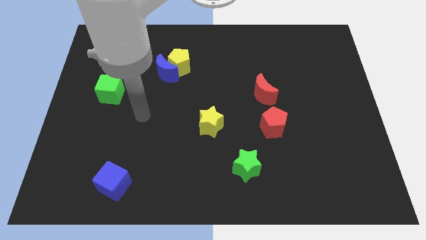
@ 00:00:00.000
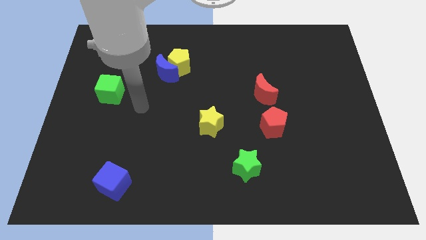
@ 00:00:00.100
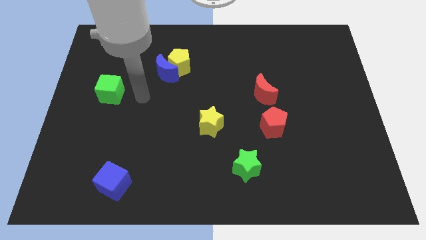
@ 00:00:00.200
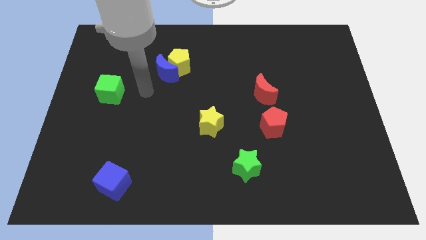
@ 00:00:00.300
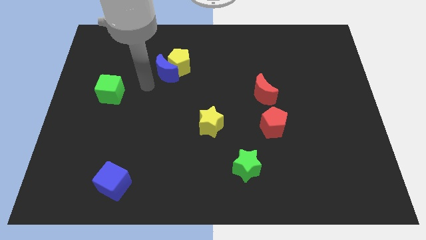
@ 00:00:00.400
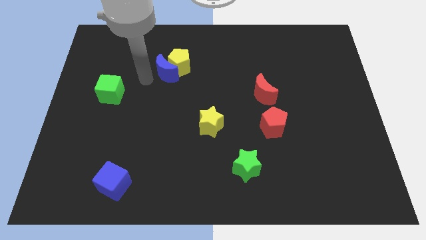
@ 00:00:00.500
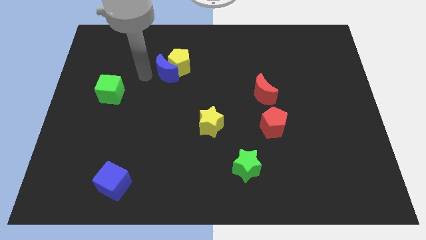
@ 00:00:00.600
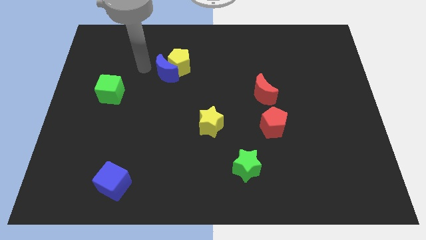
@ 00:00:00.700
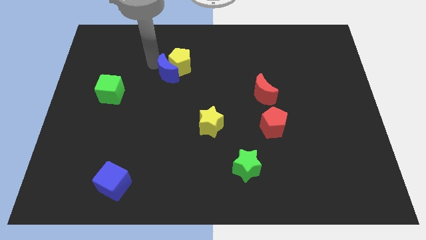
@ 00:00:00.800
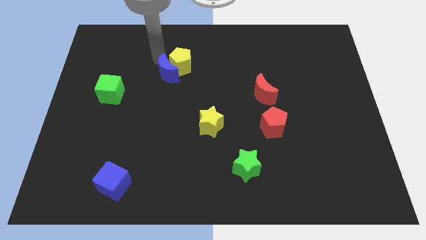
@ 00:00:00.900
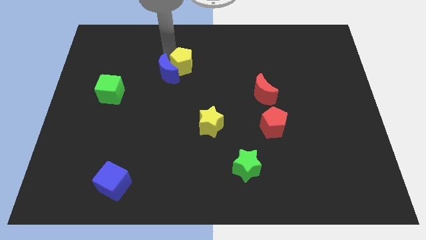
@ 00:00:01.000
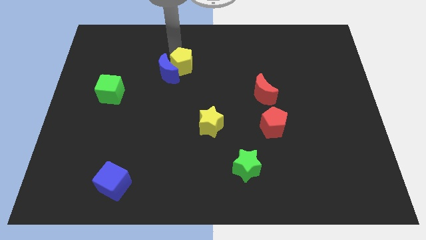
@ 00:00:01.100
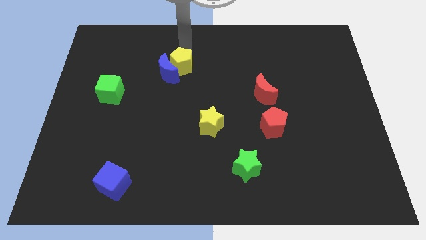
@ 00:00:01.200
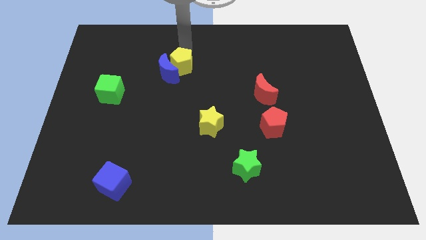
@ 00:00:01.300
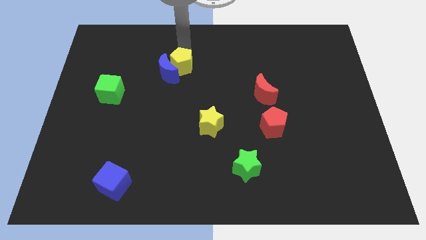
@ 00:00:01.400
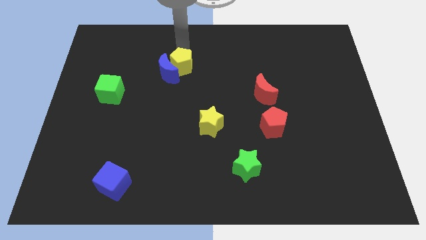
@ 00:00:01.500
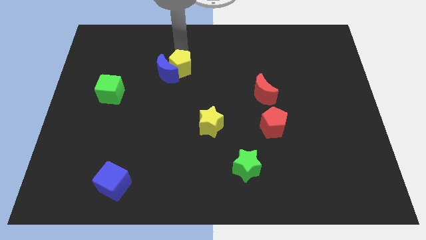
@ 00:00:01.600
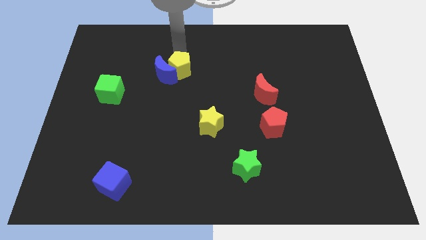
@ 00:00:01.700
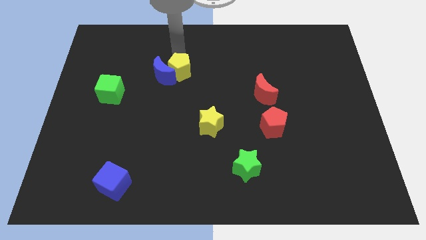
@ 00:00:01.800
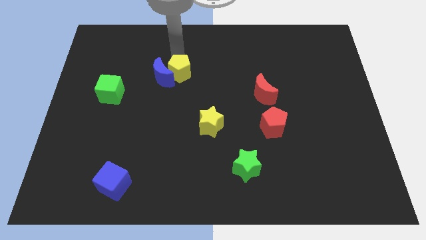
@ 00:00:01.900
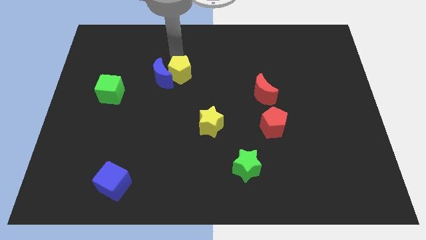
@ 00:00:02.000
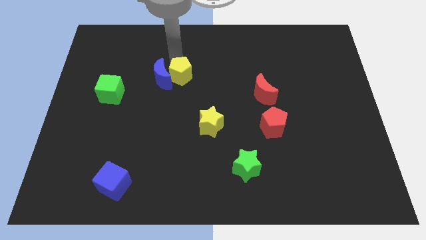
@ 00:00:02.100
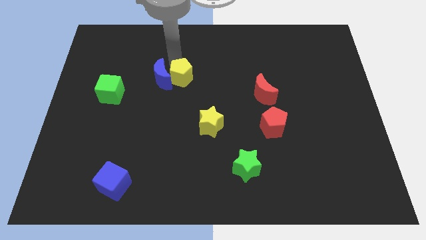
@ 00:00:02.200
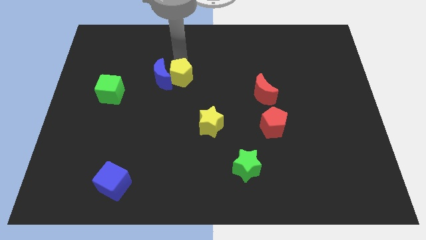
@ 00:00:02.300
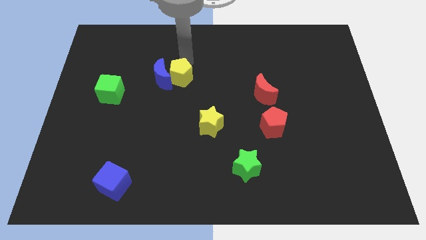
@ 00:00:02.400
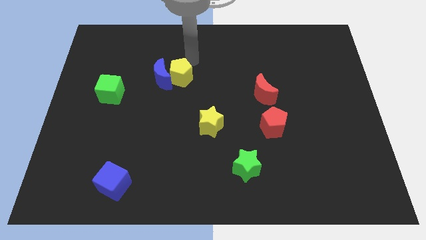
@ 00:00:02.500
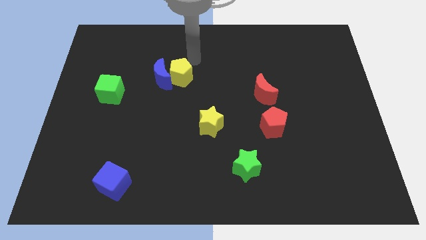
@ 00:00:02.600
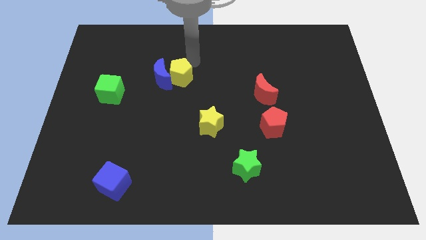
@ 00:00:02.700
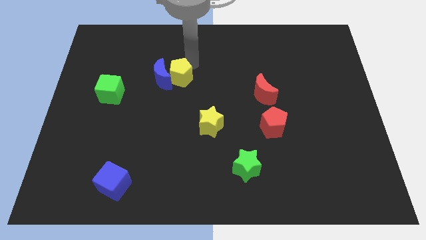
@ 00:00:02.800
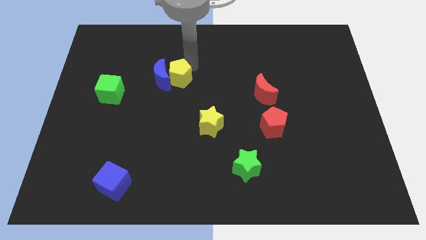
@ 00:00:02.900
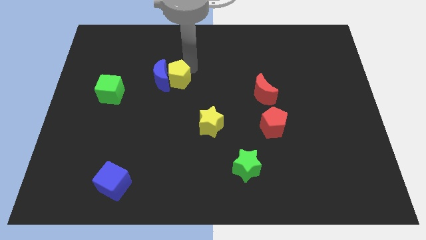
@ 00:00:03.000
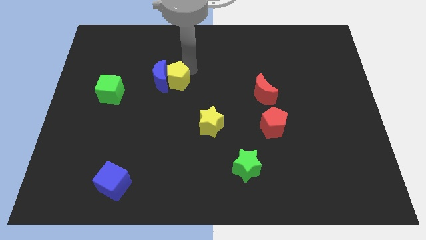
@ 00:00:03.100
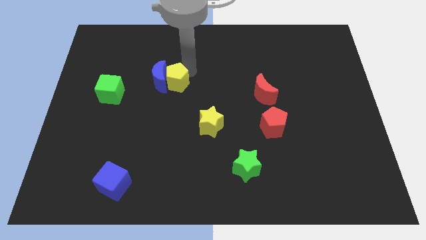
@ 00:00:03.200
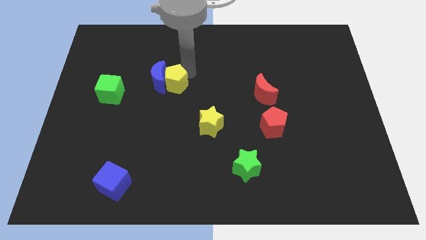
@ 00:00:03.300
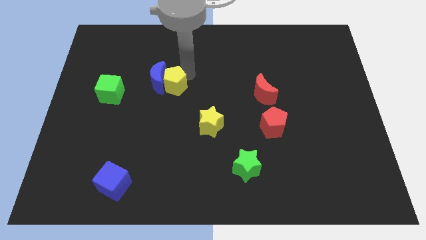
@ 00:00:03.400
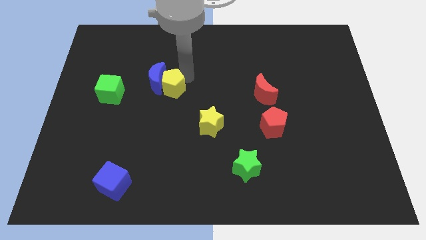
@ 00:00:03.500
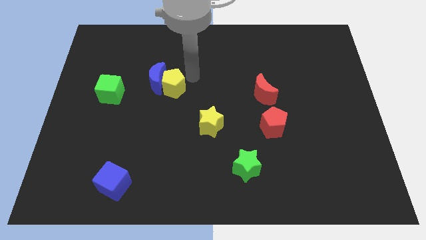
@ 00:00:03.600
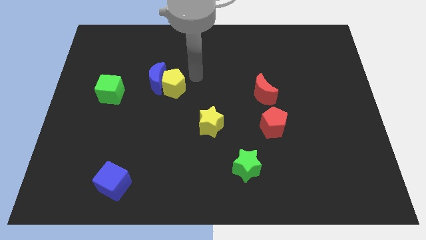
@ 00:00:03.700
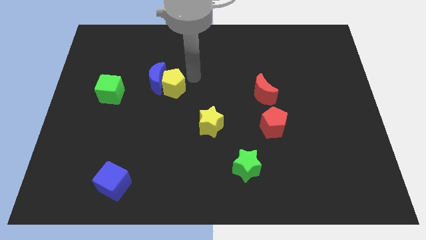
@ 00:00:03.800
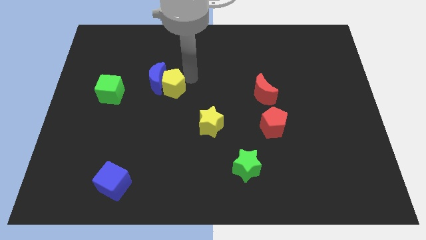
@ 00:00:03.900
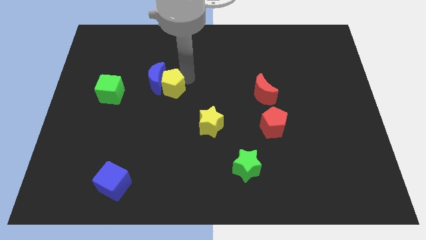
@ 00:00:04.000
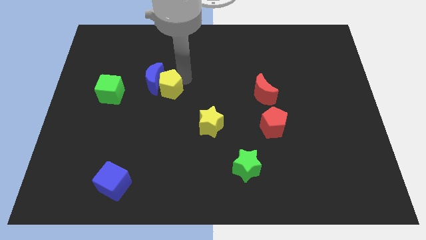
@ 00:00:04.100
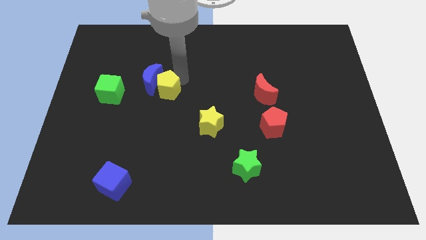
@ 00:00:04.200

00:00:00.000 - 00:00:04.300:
push the yellow pentagon downwards and to the left diagonally somewhat

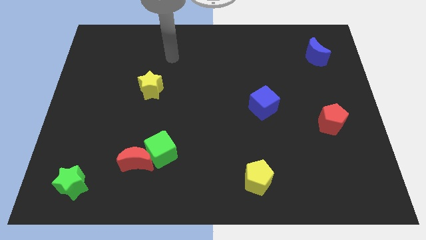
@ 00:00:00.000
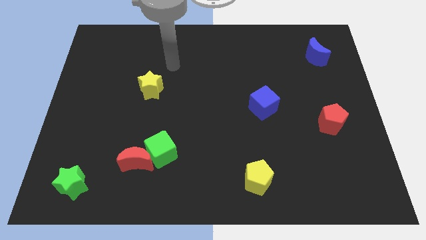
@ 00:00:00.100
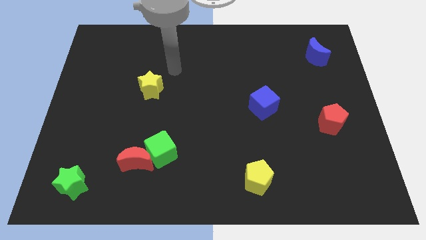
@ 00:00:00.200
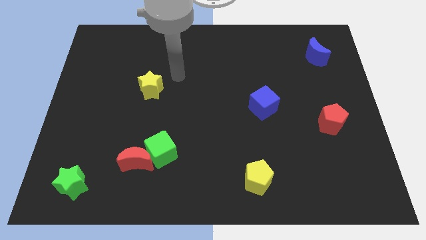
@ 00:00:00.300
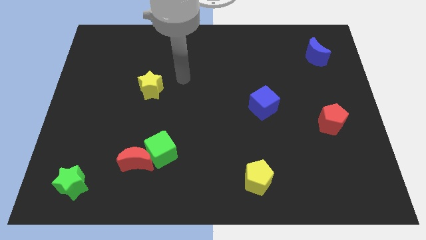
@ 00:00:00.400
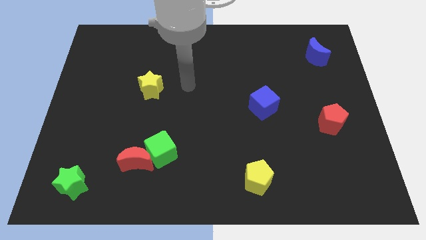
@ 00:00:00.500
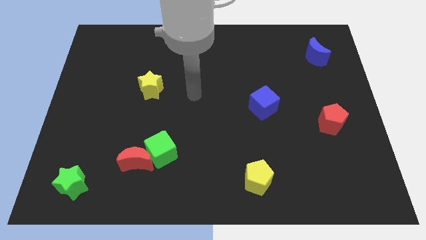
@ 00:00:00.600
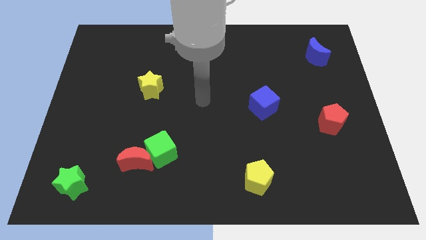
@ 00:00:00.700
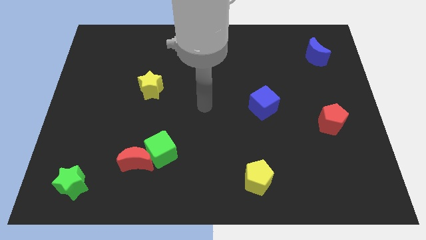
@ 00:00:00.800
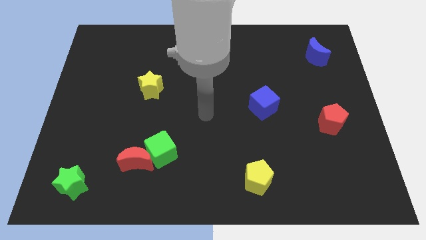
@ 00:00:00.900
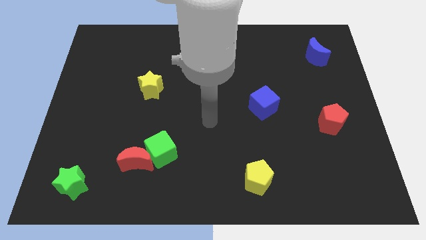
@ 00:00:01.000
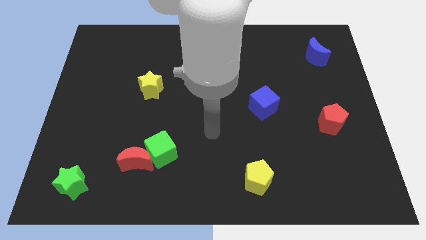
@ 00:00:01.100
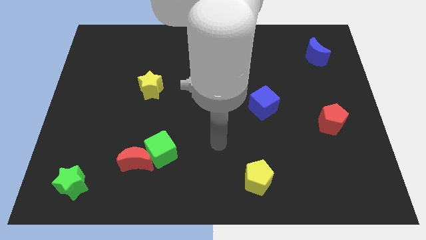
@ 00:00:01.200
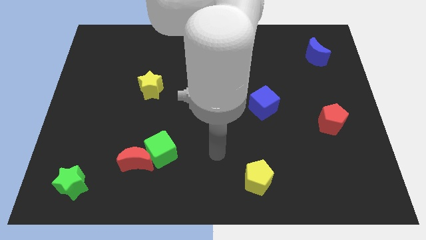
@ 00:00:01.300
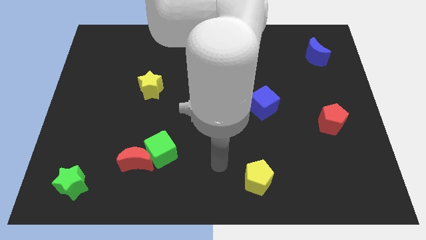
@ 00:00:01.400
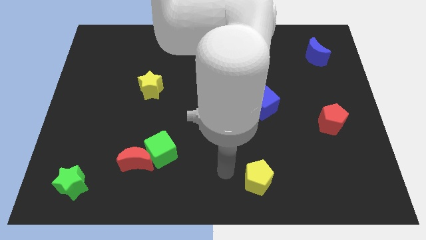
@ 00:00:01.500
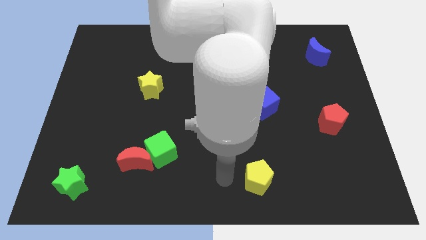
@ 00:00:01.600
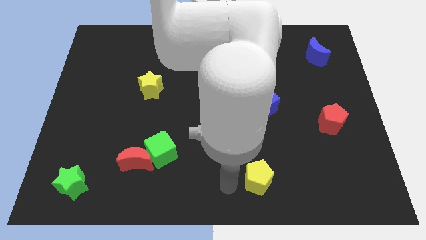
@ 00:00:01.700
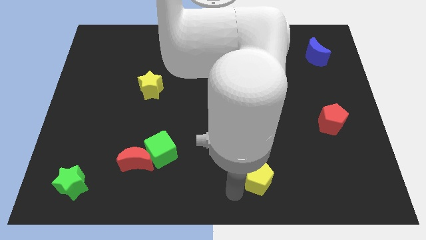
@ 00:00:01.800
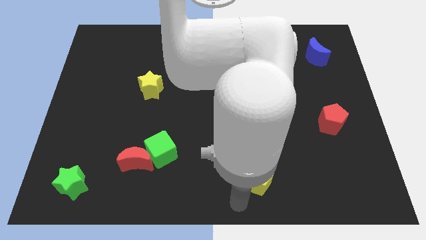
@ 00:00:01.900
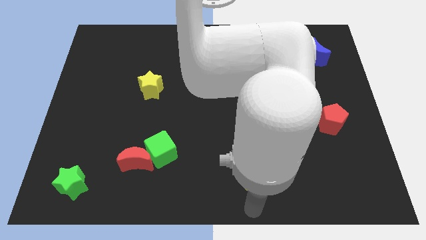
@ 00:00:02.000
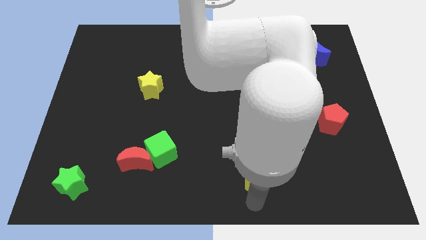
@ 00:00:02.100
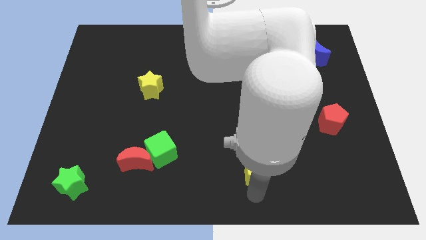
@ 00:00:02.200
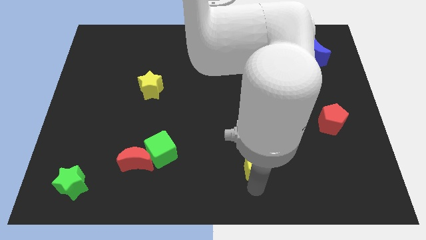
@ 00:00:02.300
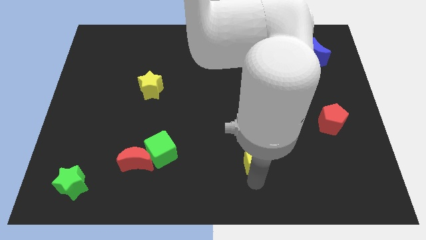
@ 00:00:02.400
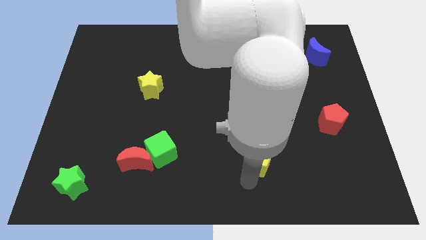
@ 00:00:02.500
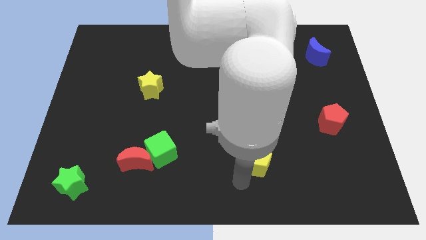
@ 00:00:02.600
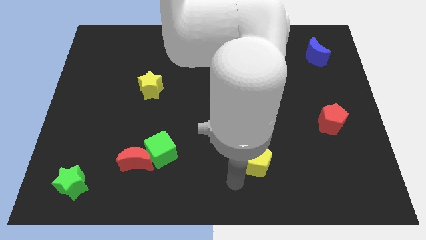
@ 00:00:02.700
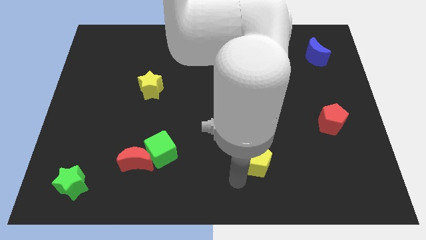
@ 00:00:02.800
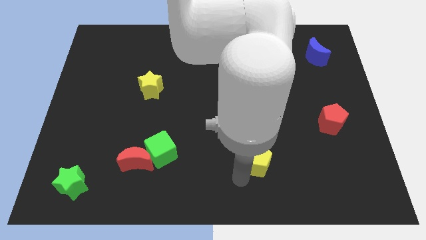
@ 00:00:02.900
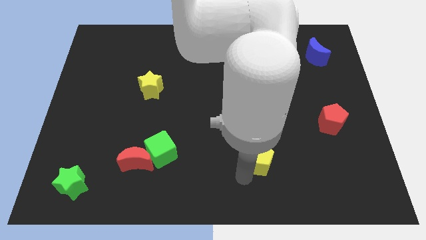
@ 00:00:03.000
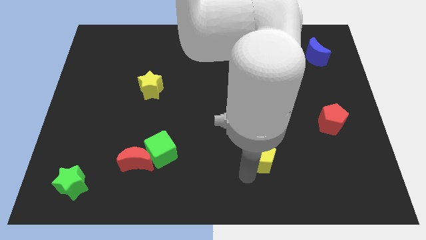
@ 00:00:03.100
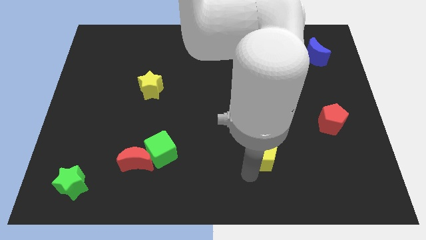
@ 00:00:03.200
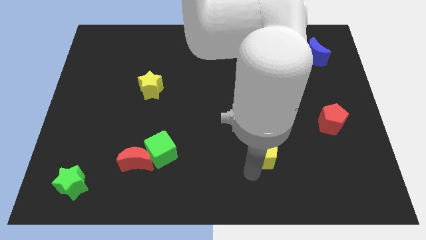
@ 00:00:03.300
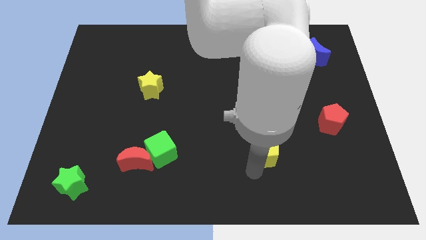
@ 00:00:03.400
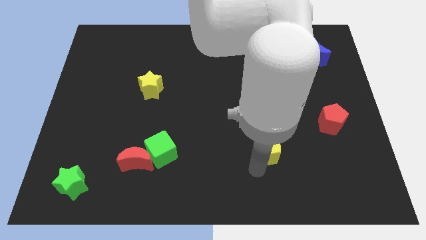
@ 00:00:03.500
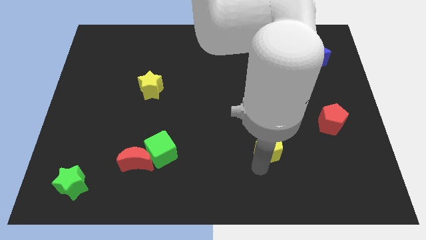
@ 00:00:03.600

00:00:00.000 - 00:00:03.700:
slightly move the yellow pentagon up and right diagonally
